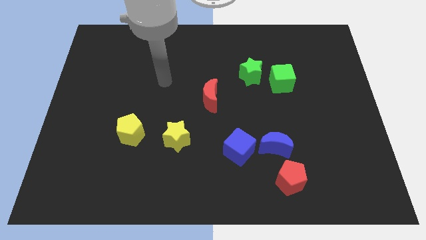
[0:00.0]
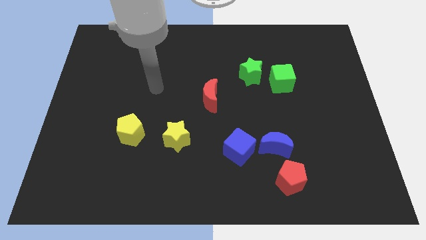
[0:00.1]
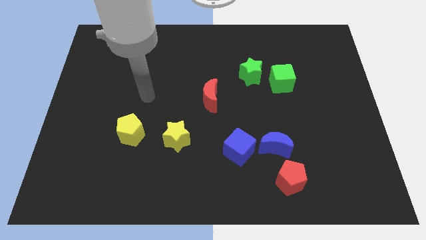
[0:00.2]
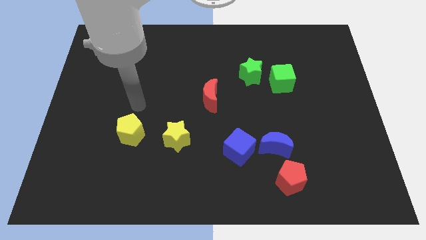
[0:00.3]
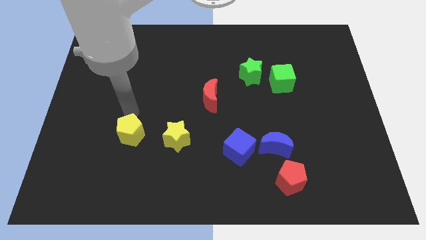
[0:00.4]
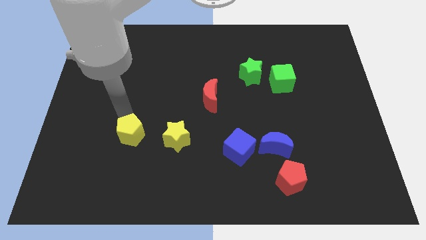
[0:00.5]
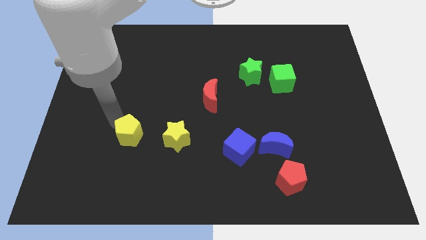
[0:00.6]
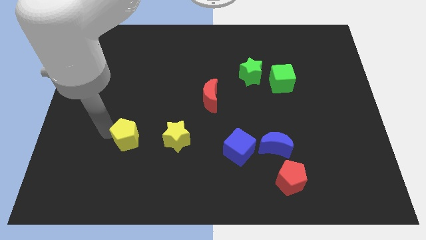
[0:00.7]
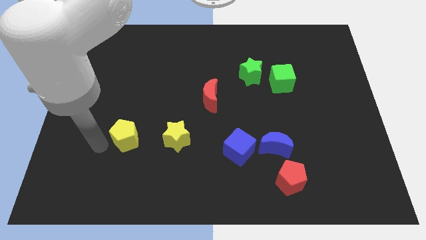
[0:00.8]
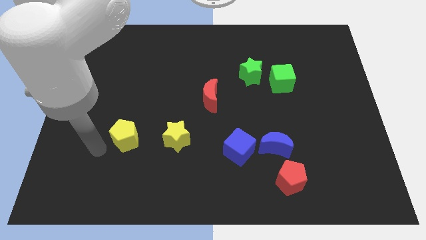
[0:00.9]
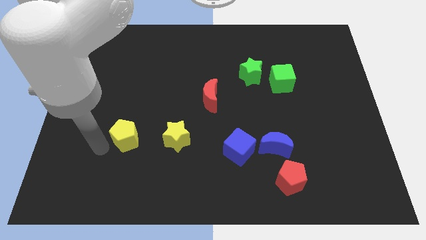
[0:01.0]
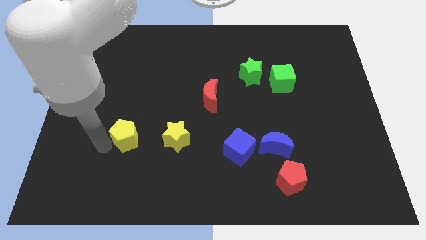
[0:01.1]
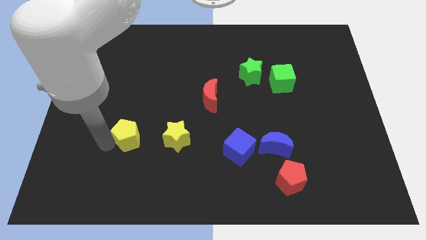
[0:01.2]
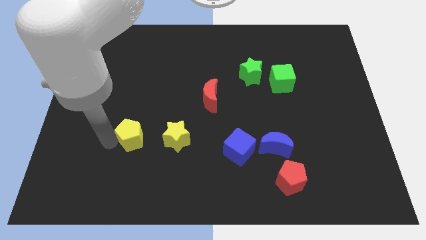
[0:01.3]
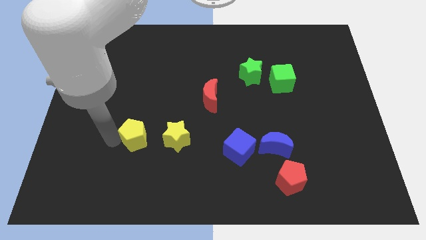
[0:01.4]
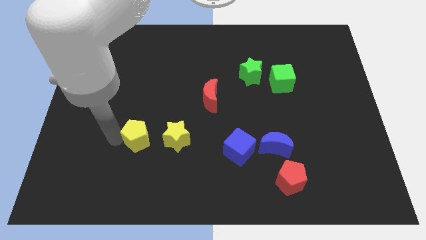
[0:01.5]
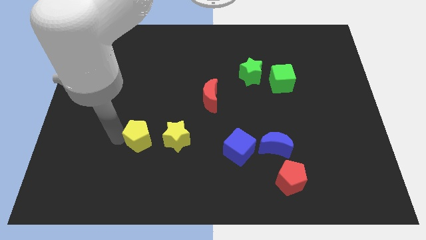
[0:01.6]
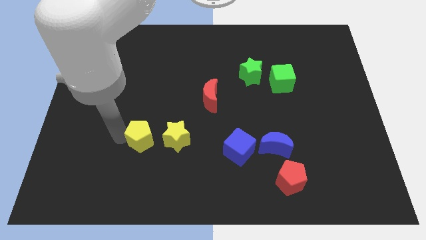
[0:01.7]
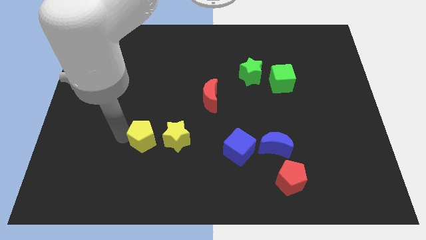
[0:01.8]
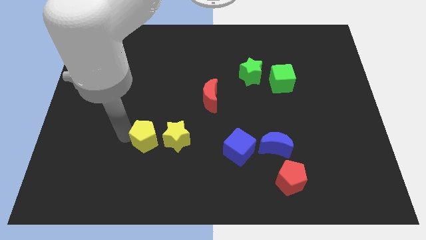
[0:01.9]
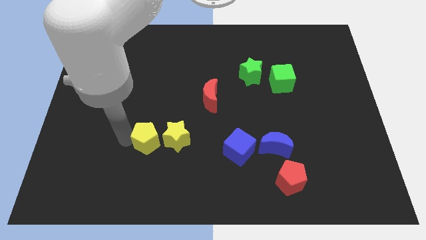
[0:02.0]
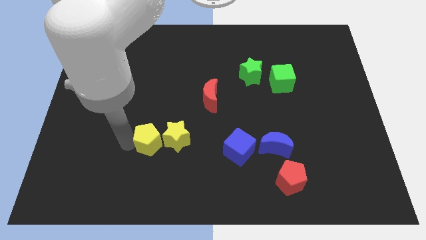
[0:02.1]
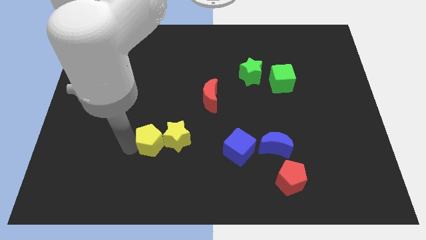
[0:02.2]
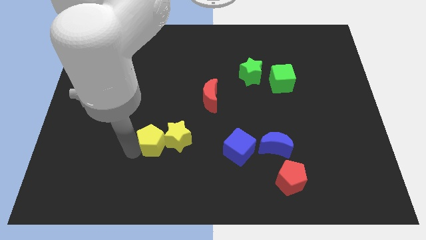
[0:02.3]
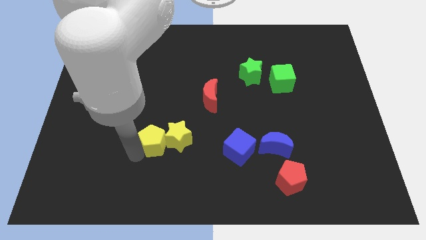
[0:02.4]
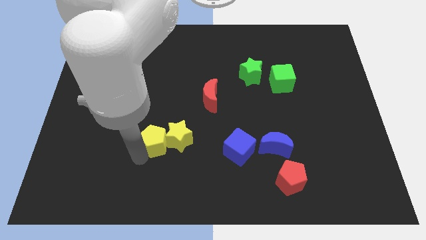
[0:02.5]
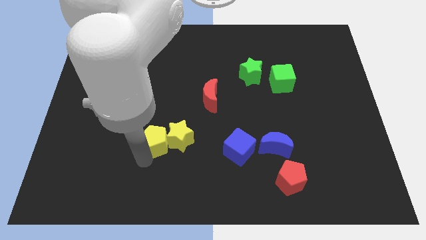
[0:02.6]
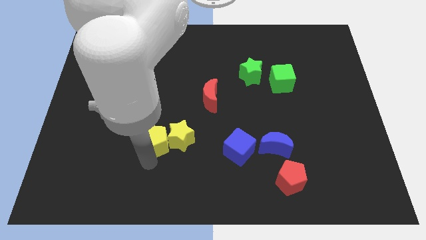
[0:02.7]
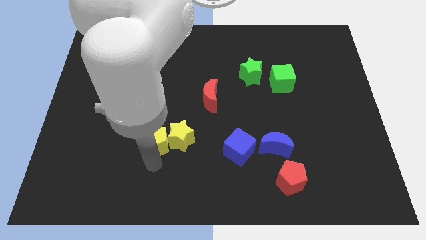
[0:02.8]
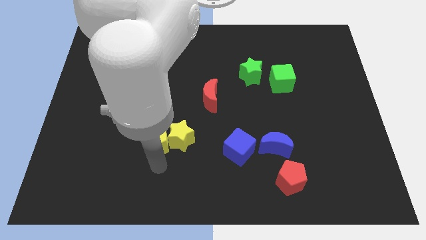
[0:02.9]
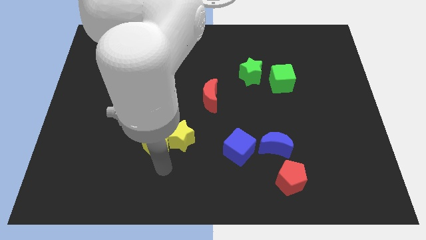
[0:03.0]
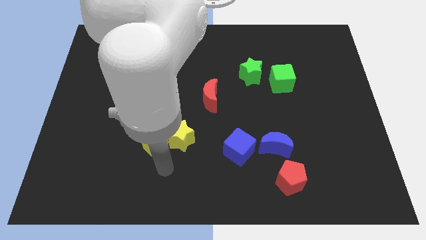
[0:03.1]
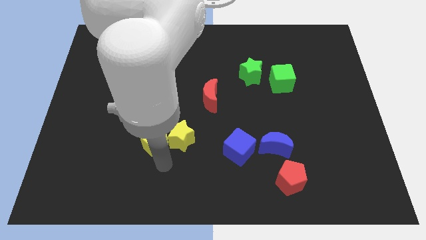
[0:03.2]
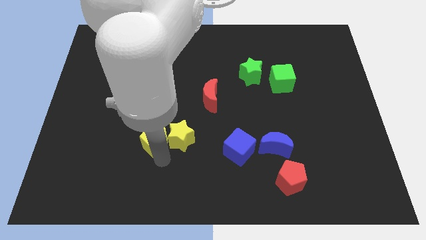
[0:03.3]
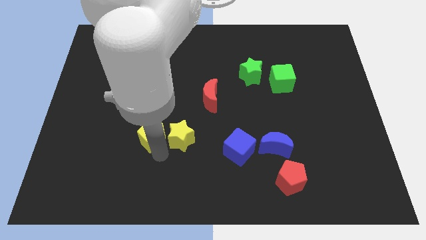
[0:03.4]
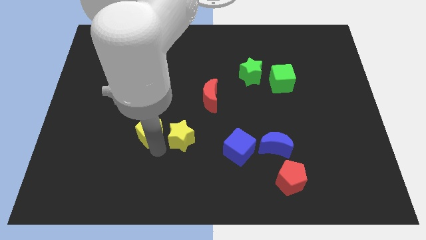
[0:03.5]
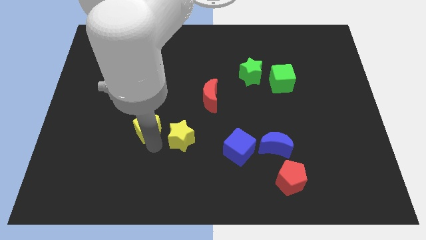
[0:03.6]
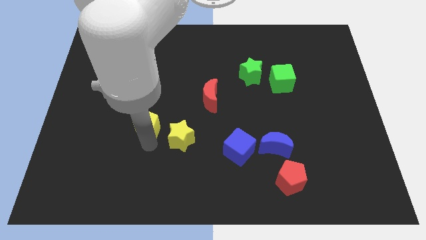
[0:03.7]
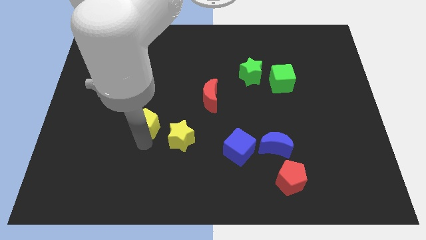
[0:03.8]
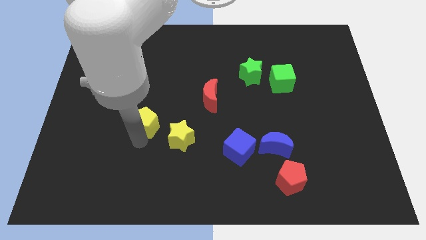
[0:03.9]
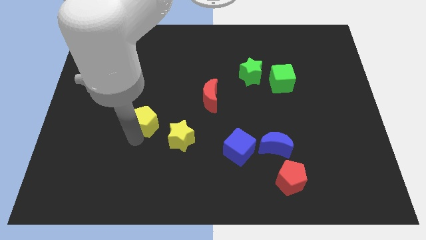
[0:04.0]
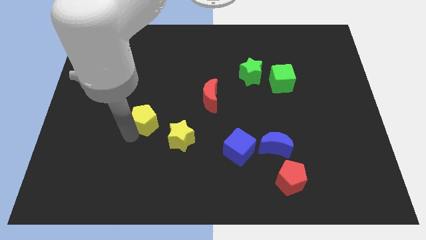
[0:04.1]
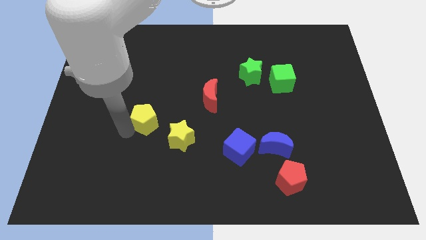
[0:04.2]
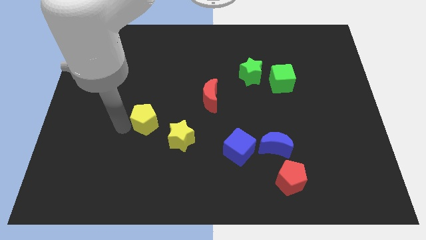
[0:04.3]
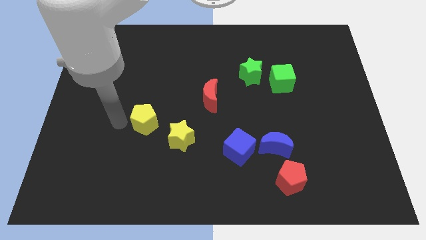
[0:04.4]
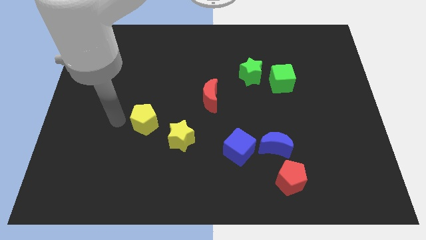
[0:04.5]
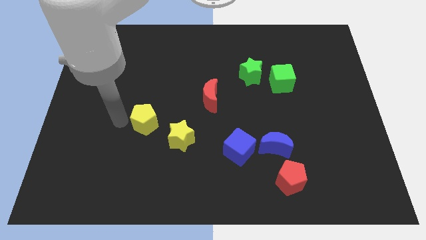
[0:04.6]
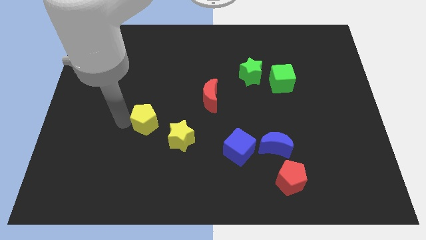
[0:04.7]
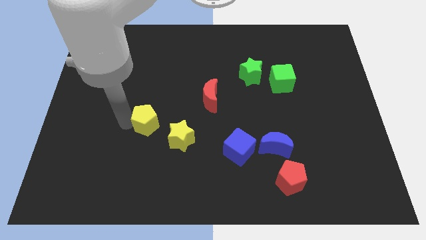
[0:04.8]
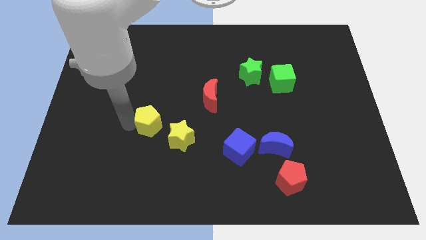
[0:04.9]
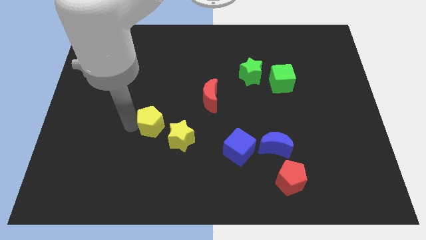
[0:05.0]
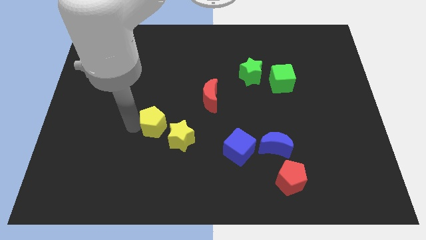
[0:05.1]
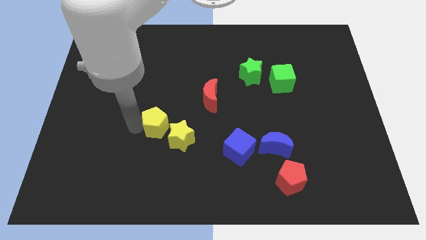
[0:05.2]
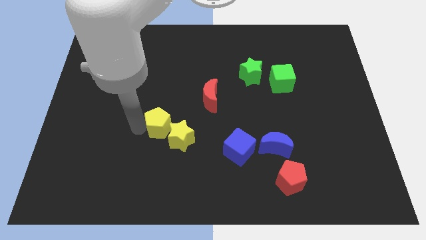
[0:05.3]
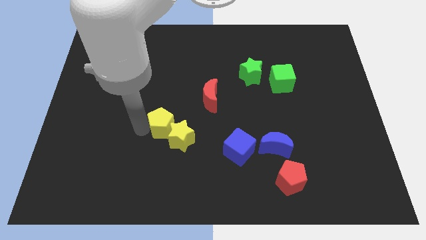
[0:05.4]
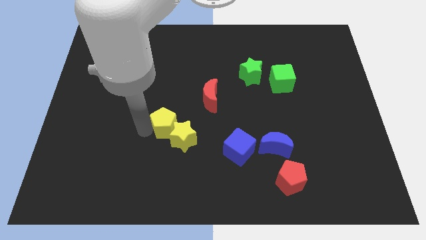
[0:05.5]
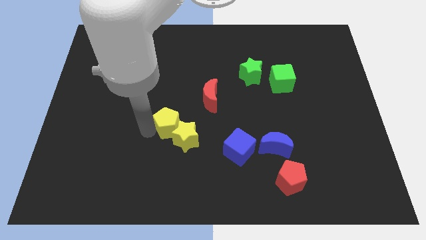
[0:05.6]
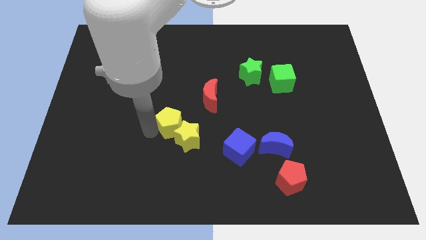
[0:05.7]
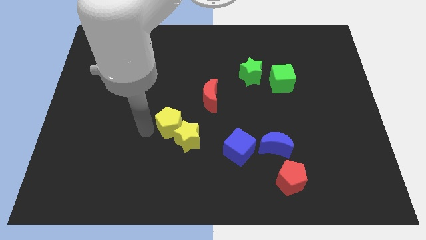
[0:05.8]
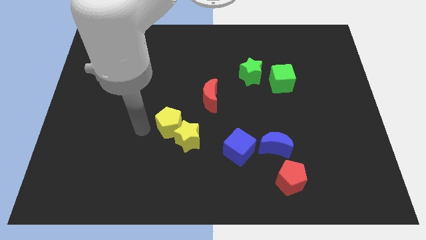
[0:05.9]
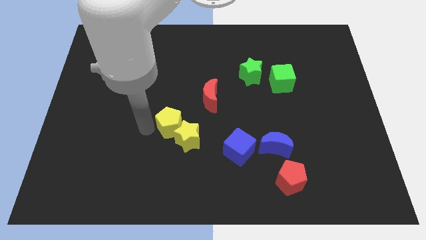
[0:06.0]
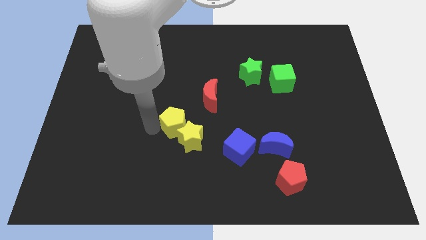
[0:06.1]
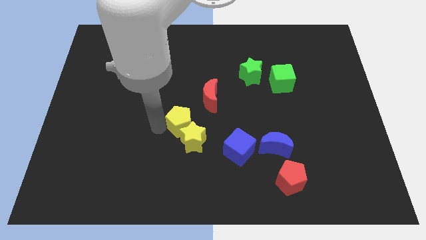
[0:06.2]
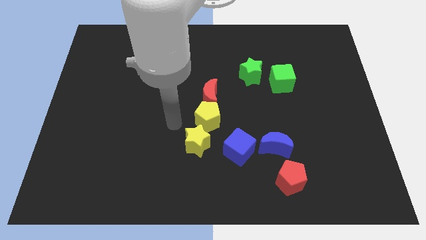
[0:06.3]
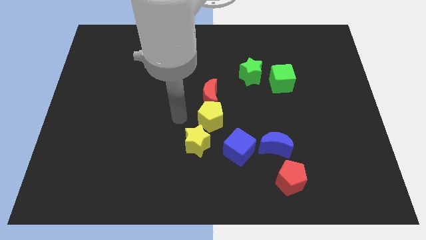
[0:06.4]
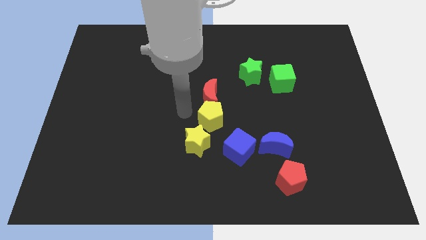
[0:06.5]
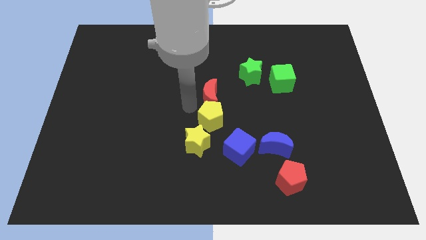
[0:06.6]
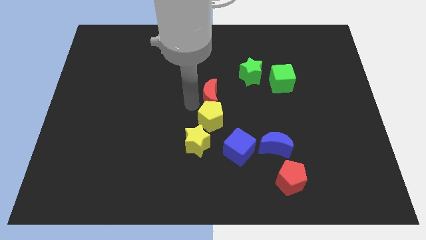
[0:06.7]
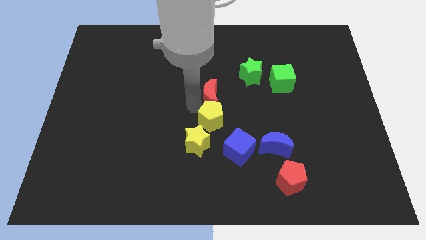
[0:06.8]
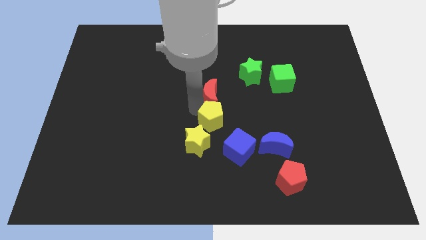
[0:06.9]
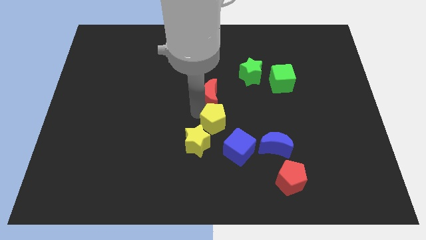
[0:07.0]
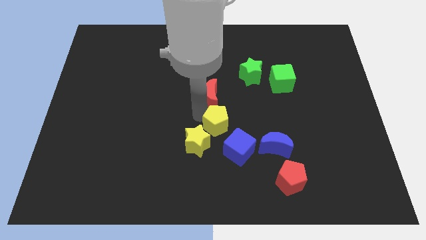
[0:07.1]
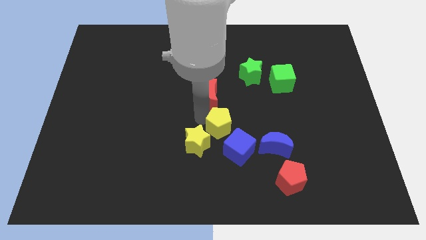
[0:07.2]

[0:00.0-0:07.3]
move the yellow pentagon just right of the yellow star
